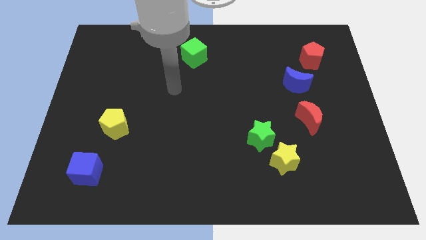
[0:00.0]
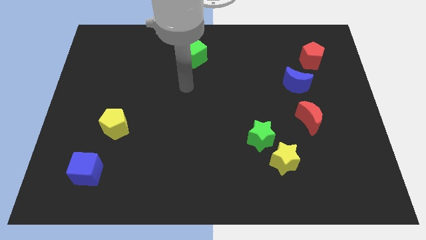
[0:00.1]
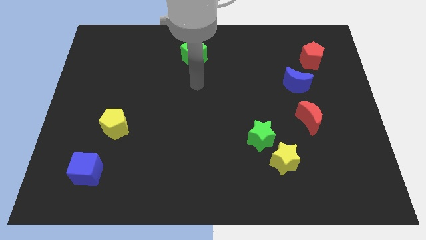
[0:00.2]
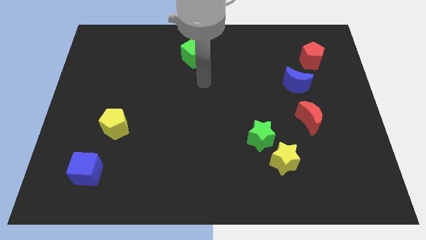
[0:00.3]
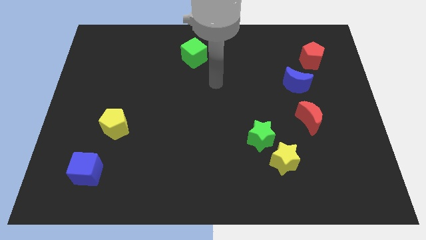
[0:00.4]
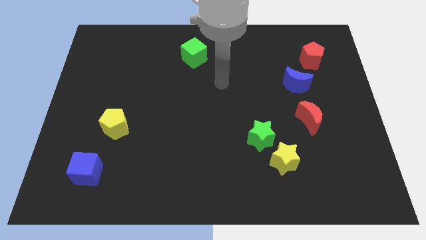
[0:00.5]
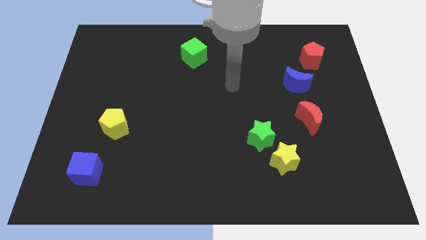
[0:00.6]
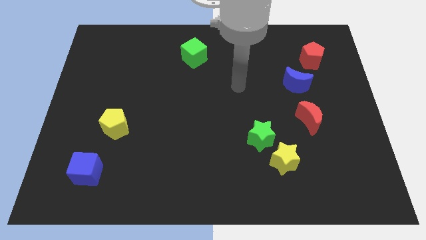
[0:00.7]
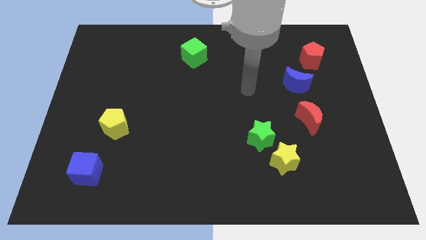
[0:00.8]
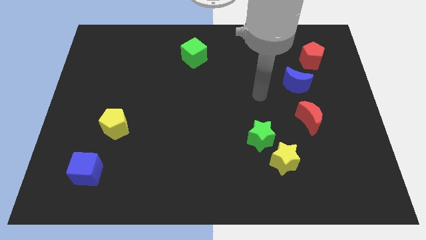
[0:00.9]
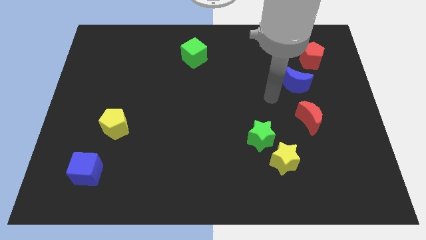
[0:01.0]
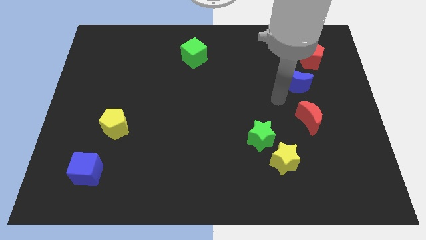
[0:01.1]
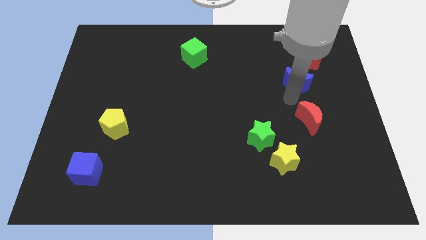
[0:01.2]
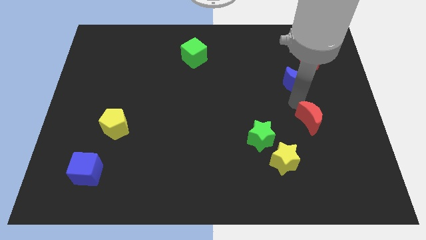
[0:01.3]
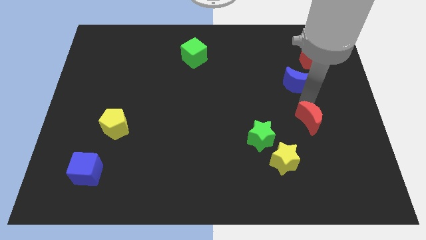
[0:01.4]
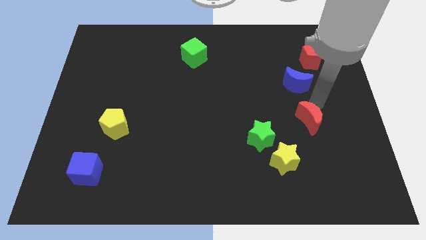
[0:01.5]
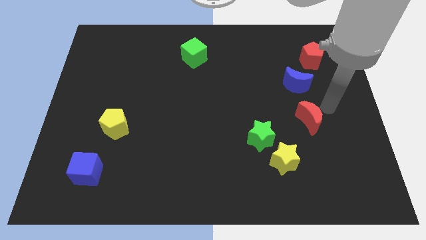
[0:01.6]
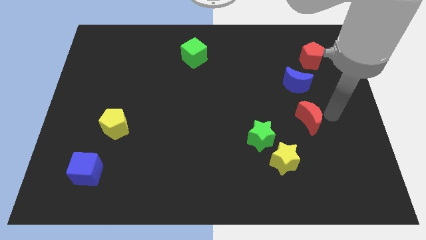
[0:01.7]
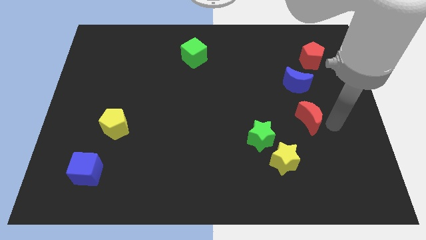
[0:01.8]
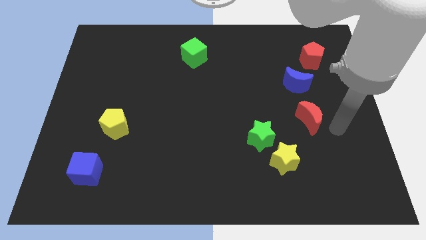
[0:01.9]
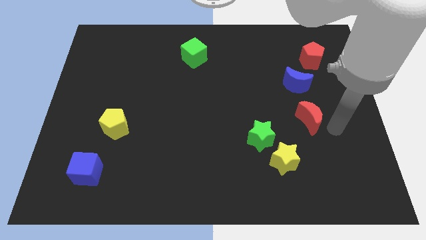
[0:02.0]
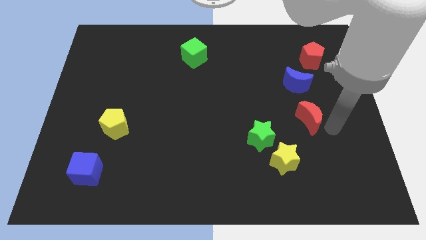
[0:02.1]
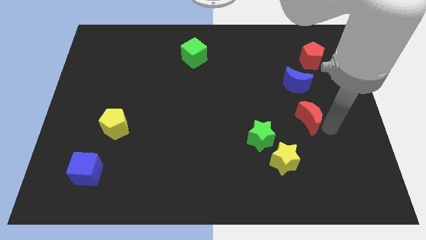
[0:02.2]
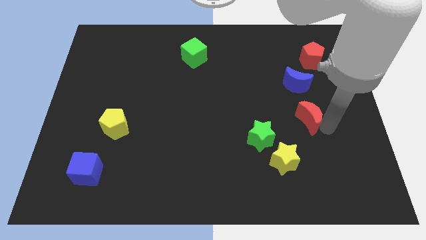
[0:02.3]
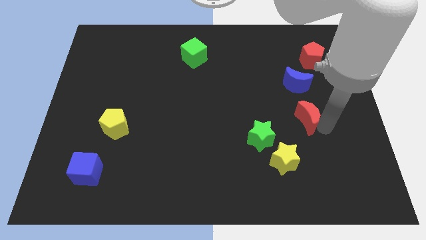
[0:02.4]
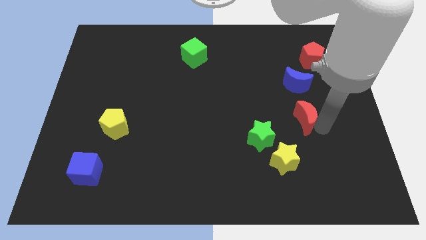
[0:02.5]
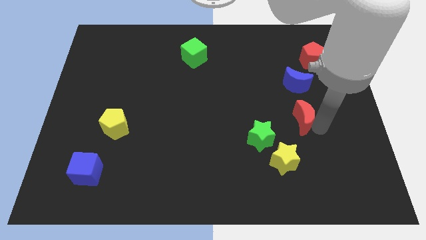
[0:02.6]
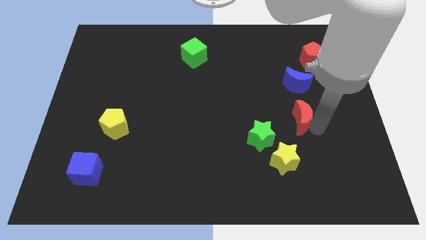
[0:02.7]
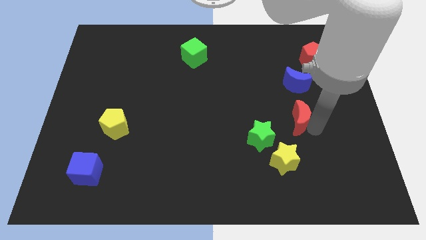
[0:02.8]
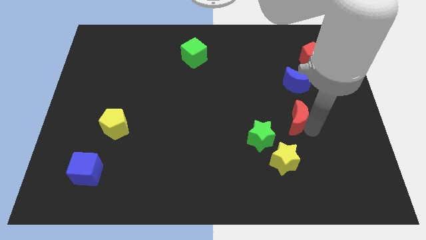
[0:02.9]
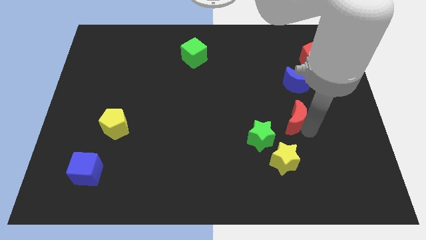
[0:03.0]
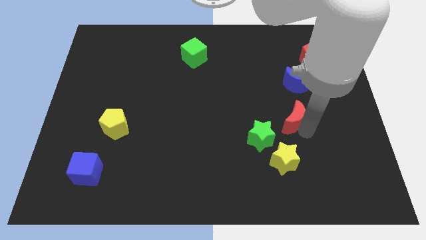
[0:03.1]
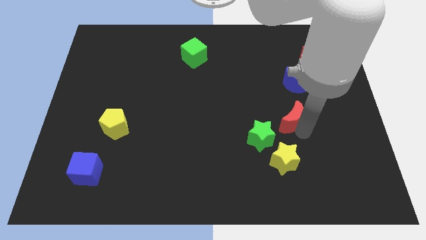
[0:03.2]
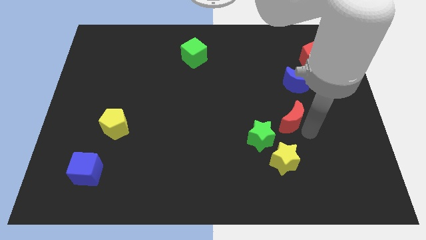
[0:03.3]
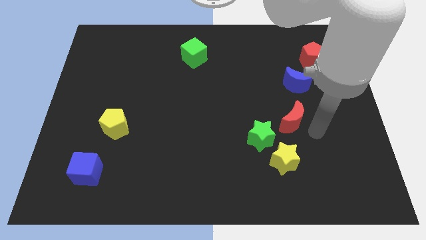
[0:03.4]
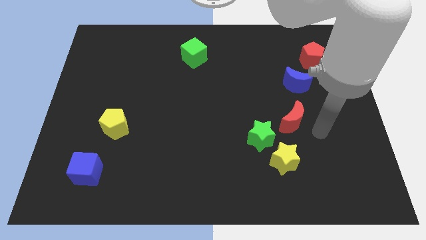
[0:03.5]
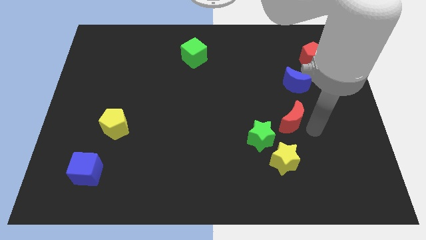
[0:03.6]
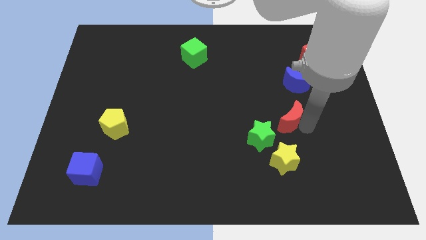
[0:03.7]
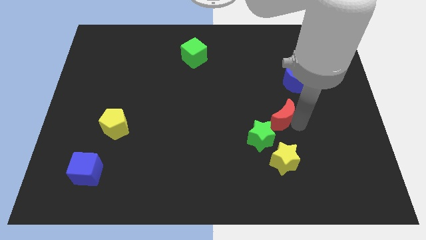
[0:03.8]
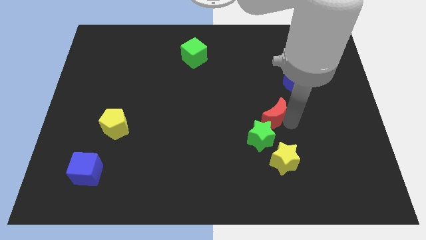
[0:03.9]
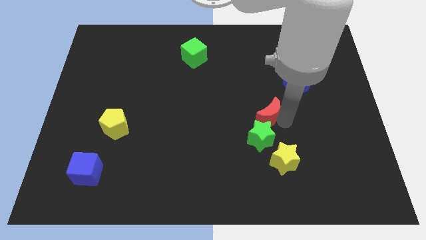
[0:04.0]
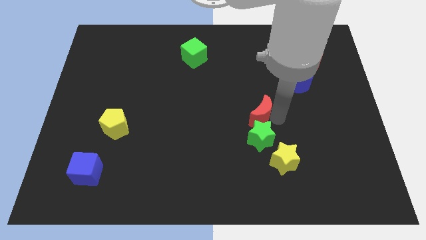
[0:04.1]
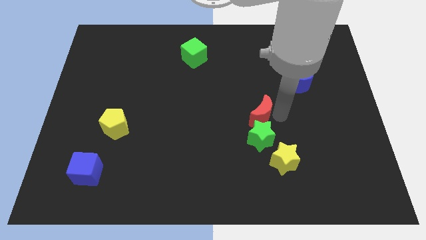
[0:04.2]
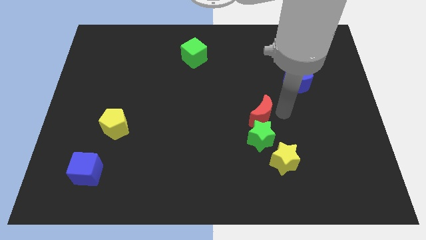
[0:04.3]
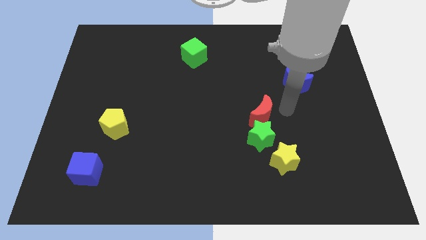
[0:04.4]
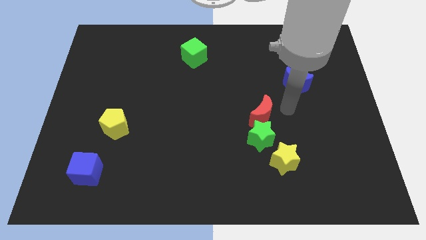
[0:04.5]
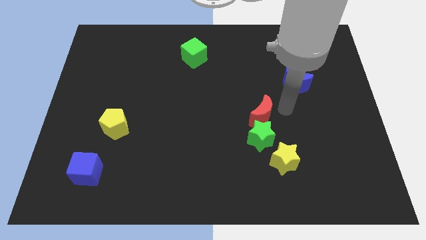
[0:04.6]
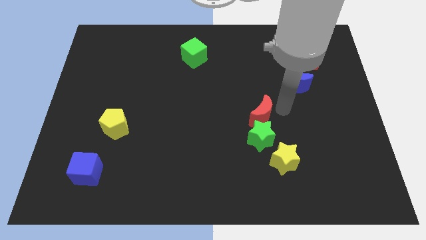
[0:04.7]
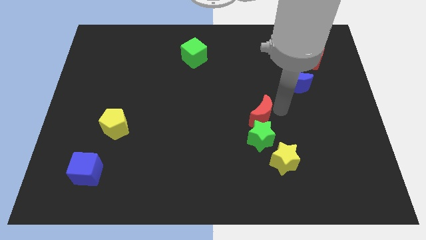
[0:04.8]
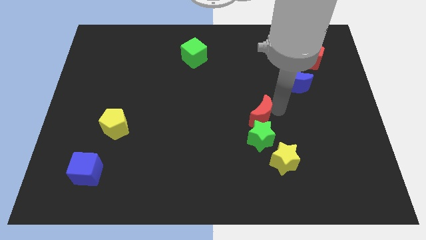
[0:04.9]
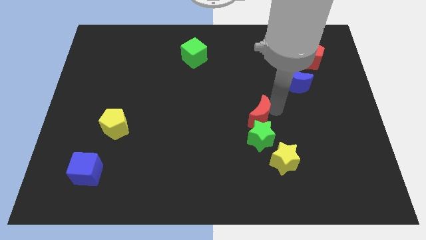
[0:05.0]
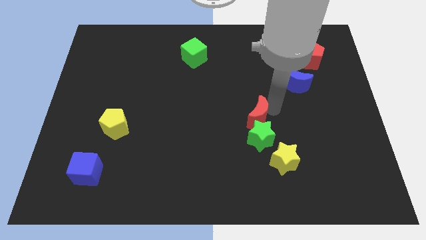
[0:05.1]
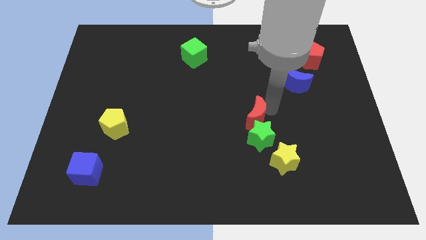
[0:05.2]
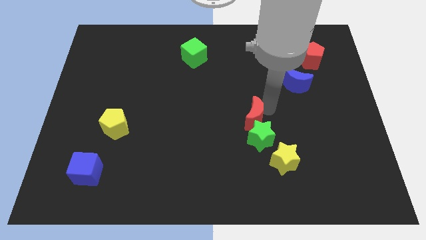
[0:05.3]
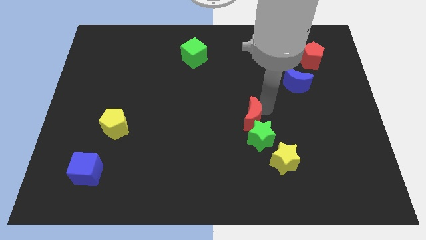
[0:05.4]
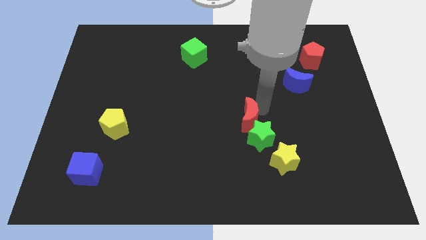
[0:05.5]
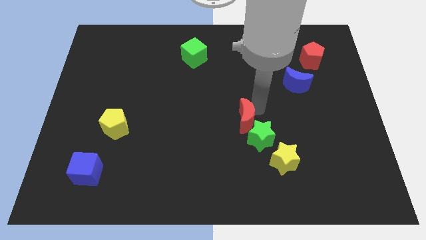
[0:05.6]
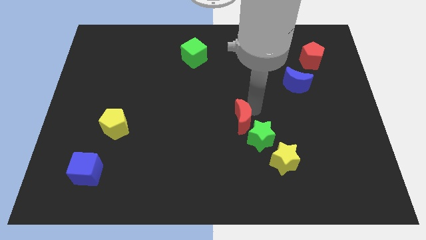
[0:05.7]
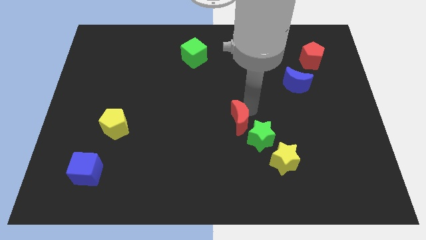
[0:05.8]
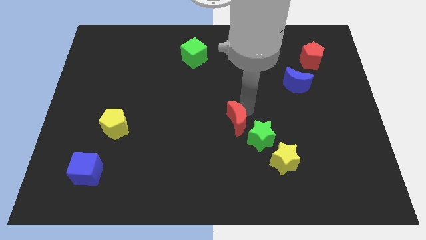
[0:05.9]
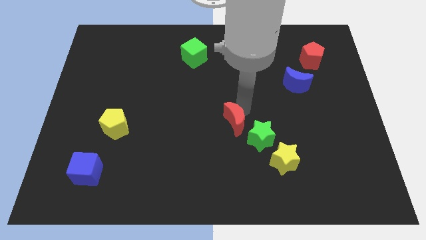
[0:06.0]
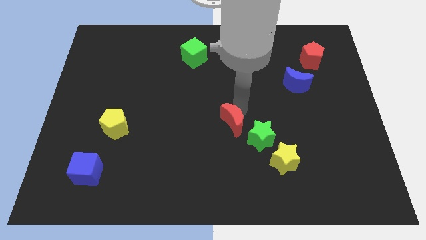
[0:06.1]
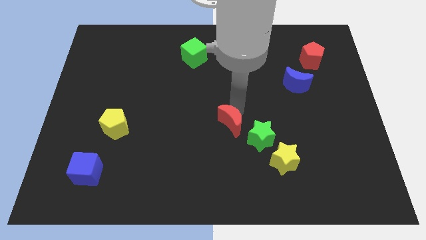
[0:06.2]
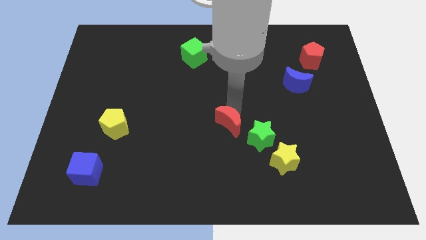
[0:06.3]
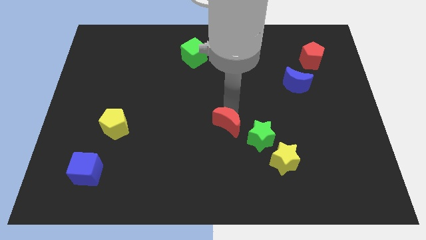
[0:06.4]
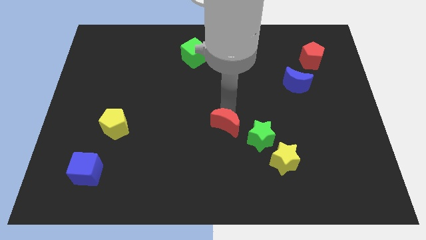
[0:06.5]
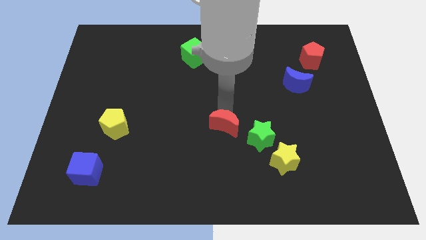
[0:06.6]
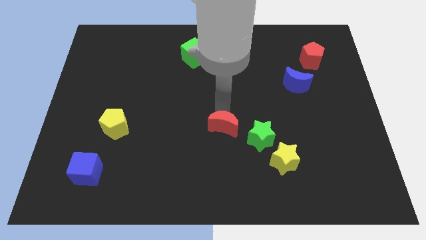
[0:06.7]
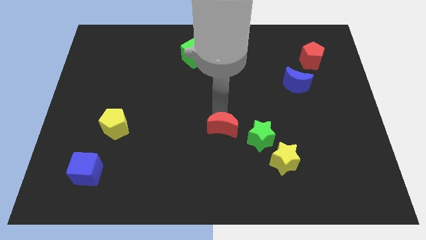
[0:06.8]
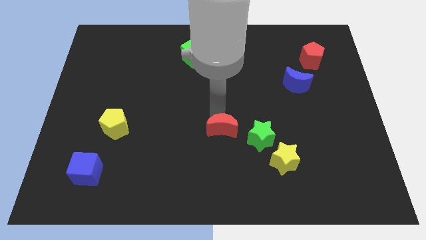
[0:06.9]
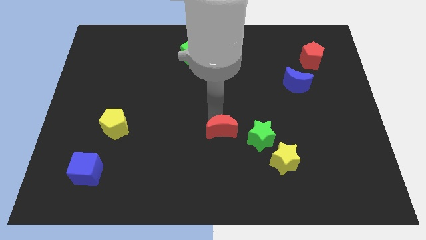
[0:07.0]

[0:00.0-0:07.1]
move the red moon somewhat down and then left

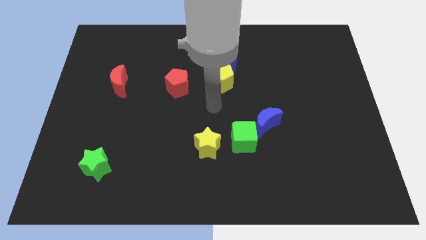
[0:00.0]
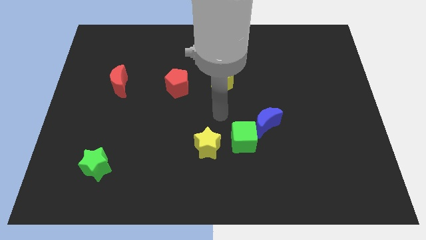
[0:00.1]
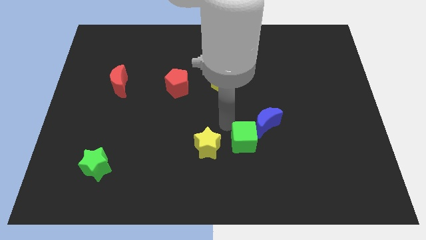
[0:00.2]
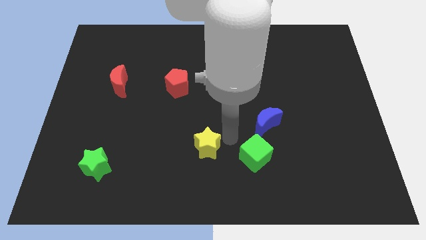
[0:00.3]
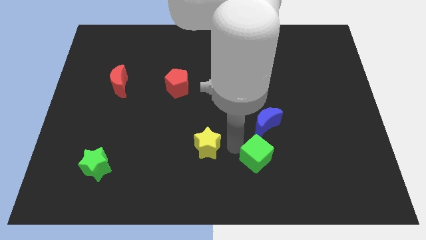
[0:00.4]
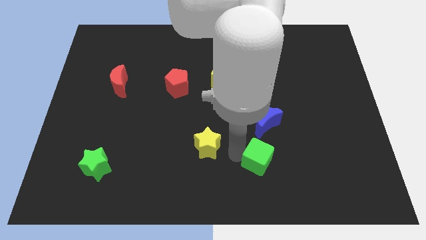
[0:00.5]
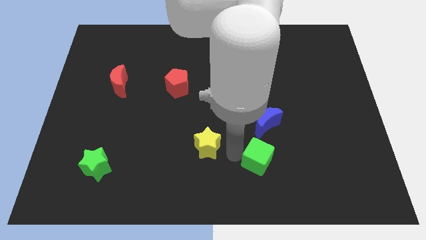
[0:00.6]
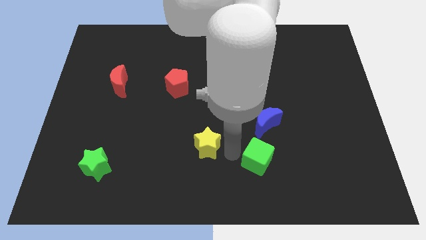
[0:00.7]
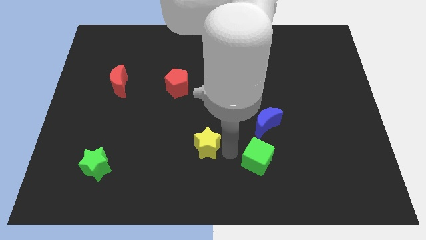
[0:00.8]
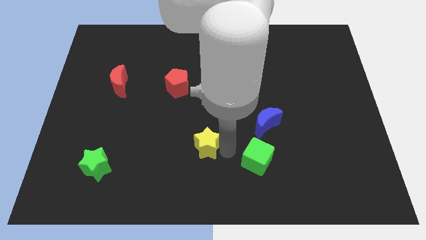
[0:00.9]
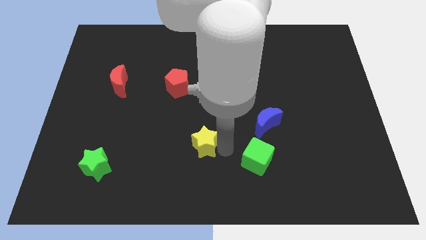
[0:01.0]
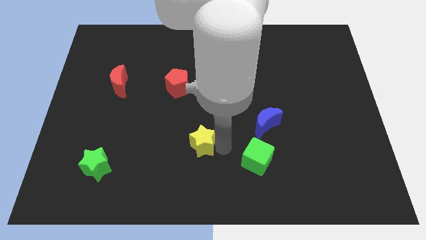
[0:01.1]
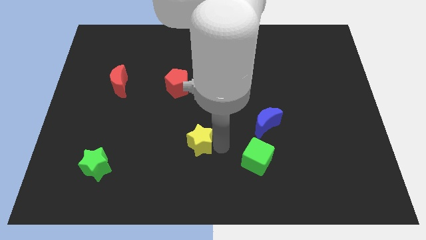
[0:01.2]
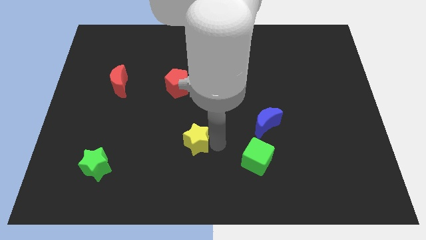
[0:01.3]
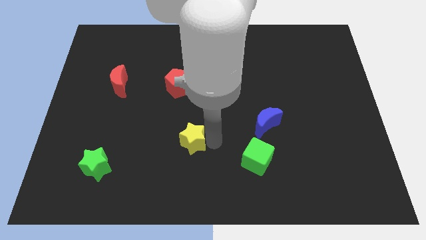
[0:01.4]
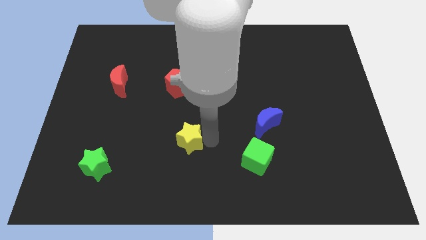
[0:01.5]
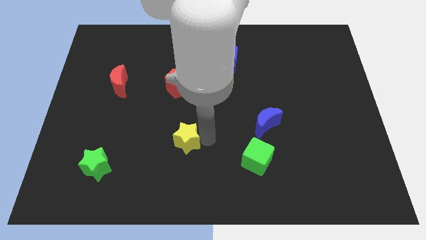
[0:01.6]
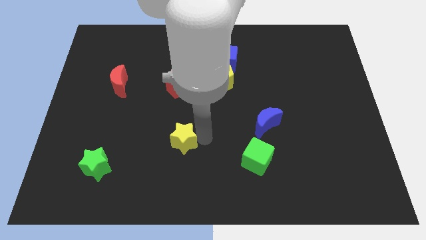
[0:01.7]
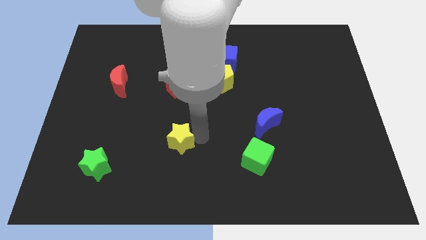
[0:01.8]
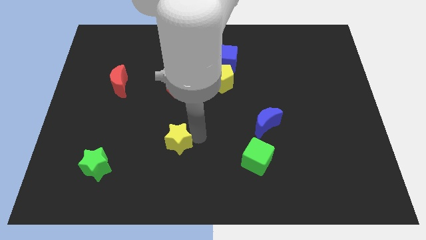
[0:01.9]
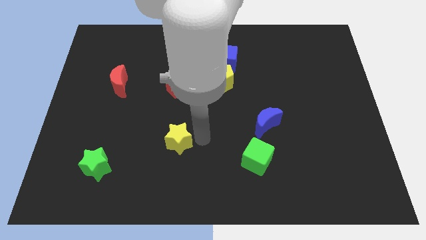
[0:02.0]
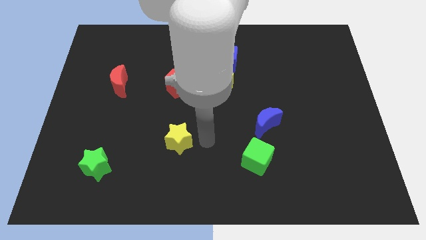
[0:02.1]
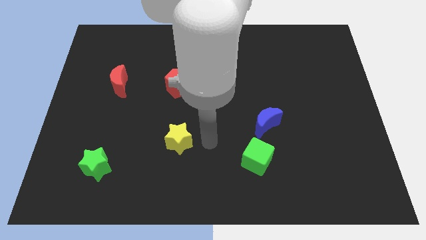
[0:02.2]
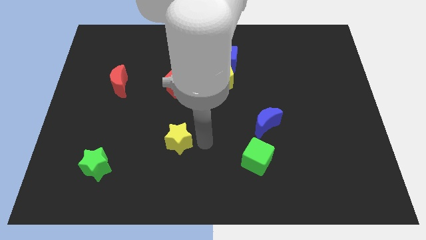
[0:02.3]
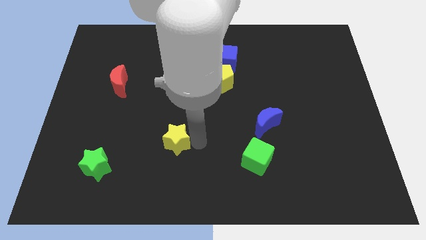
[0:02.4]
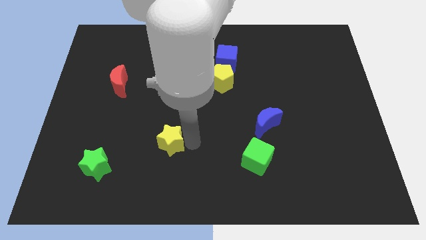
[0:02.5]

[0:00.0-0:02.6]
slightly slide the yellow star left
